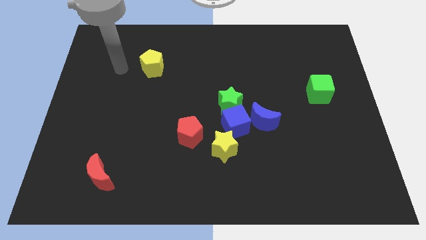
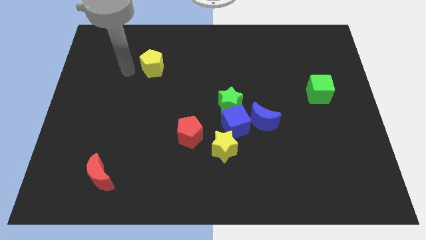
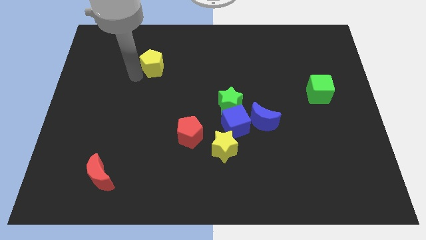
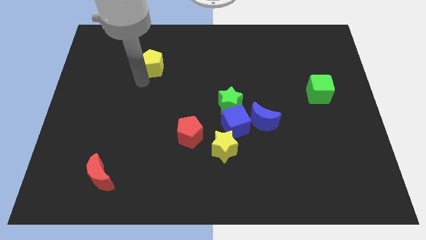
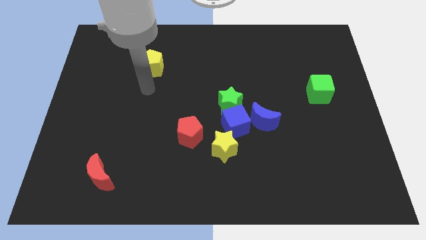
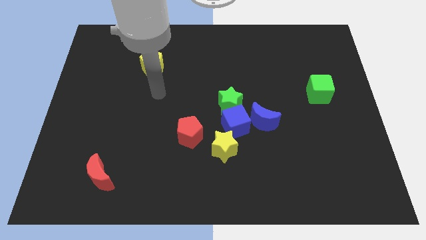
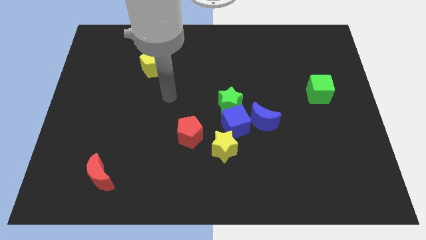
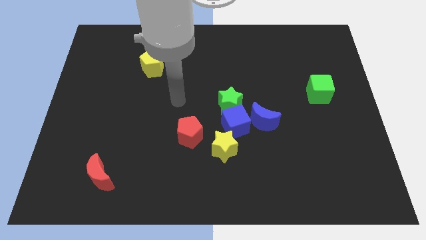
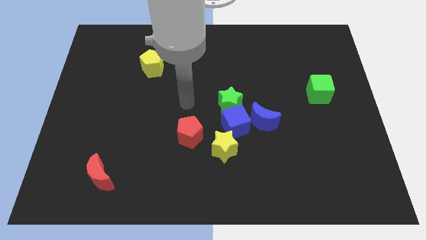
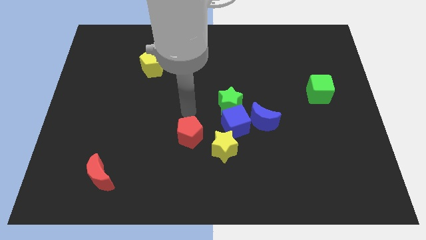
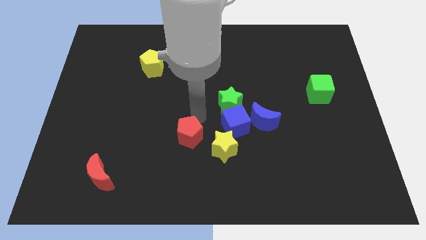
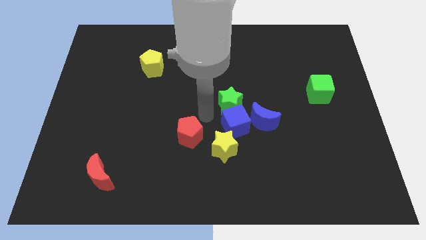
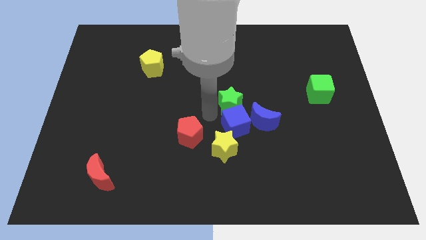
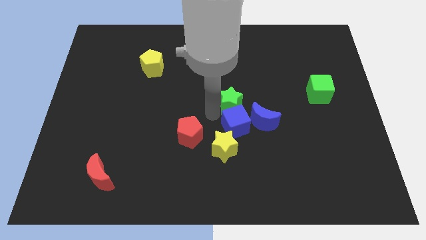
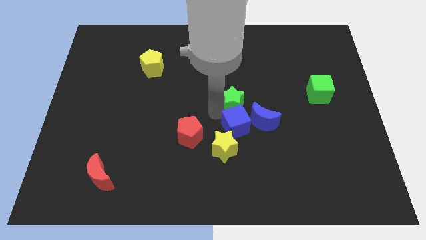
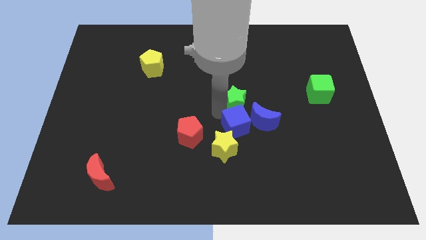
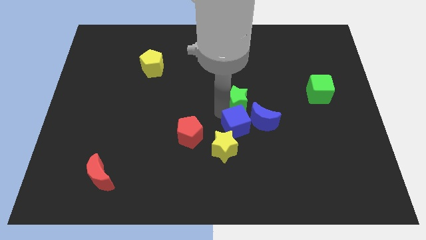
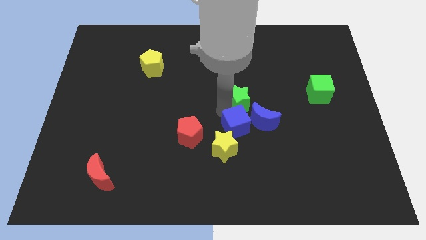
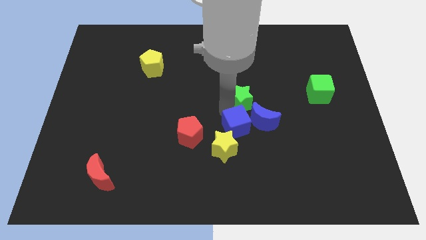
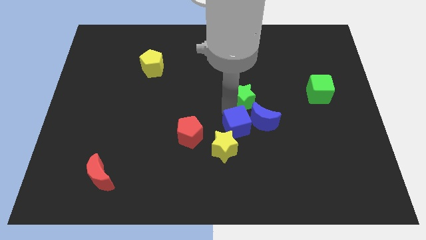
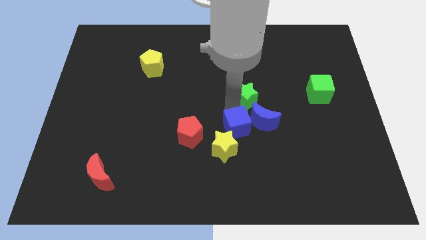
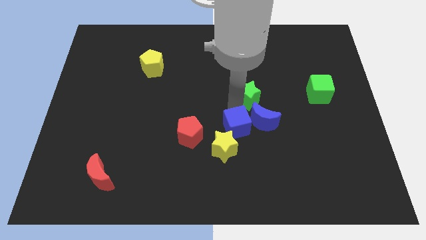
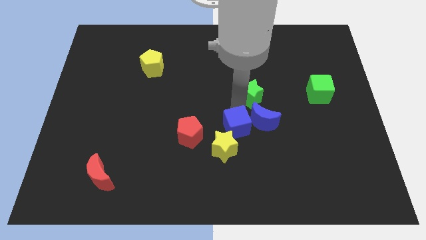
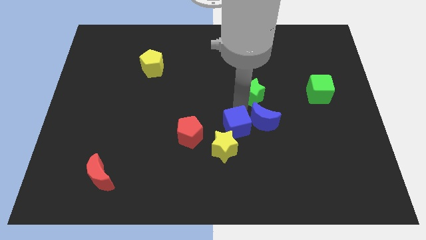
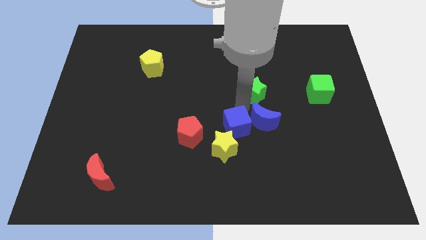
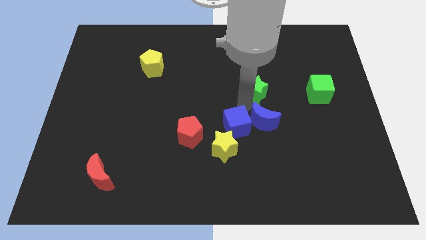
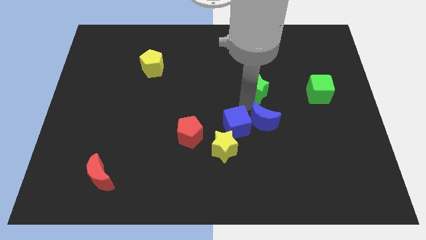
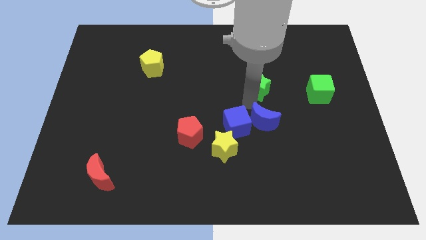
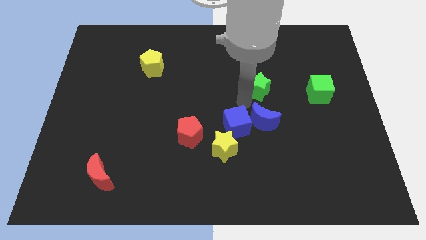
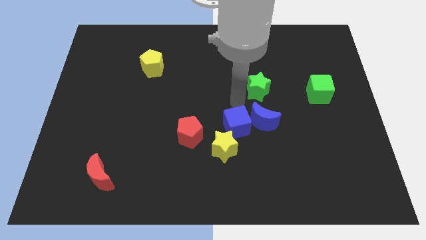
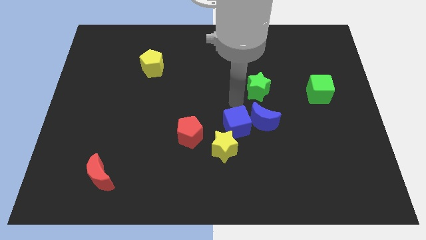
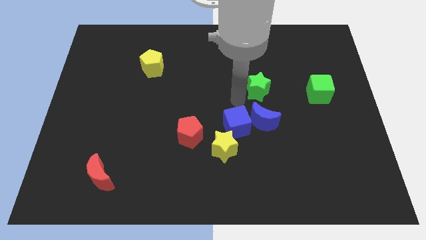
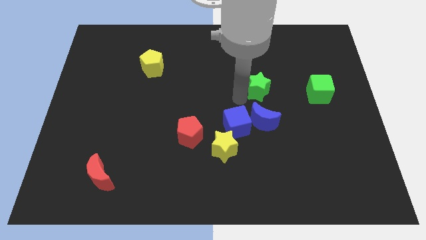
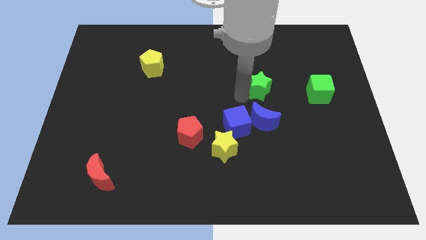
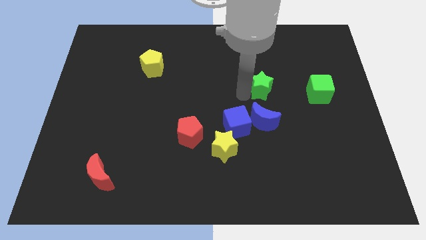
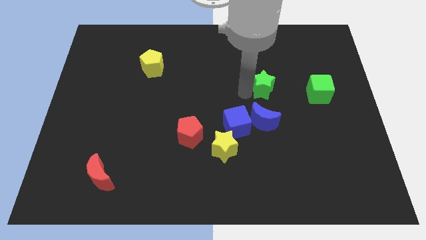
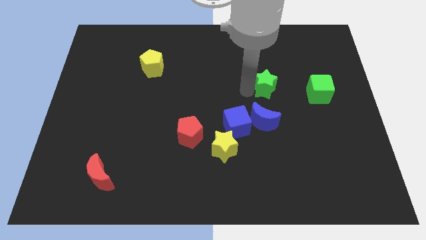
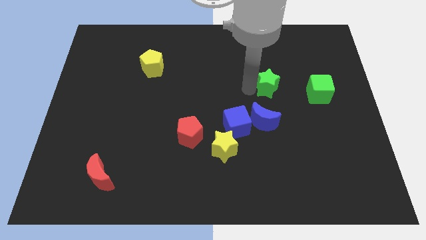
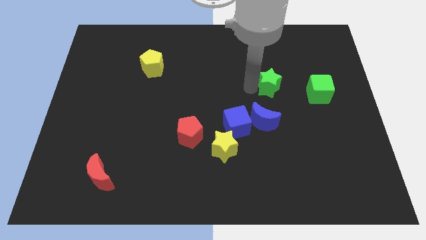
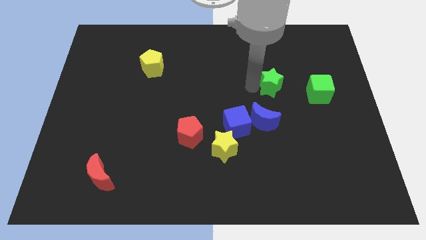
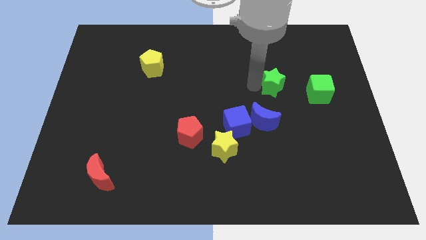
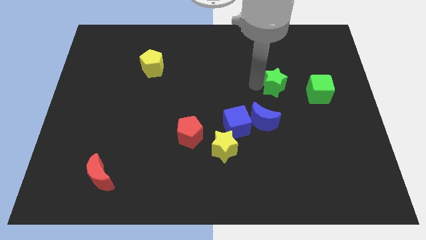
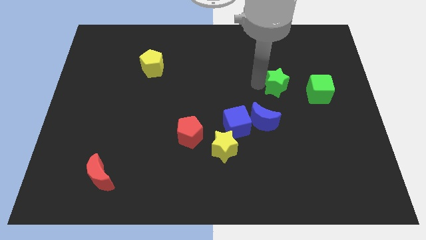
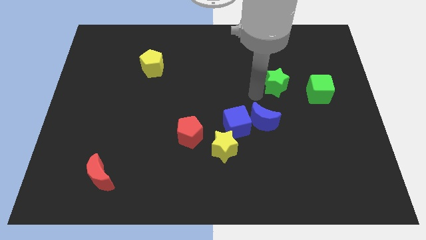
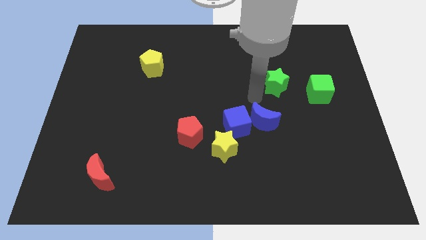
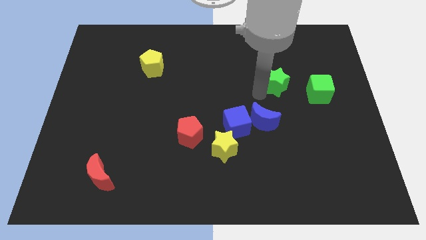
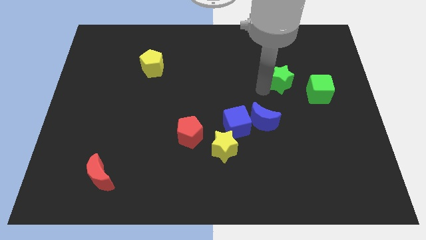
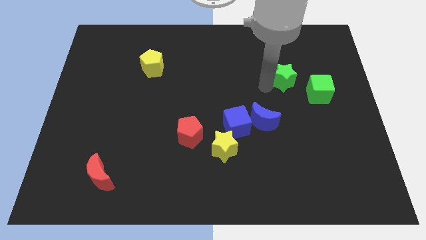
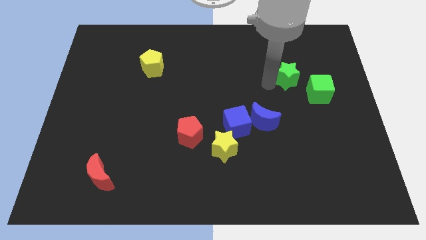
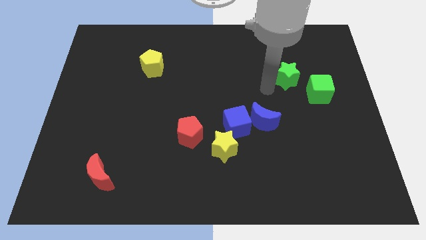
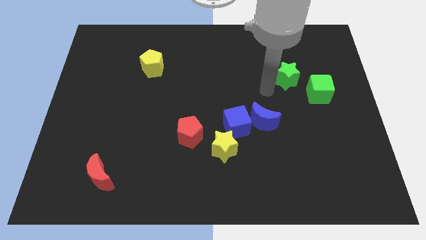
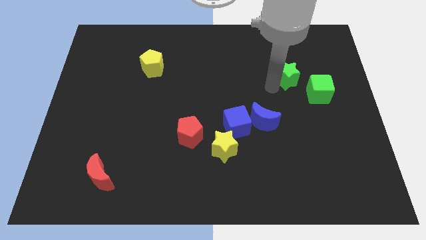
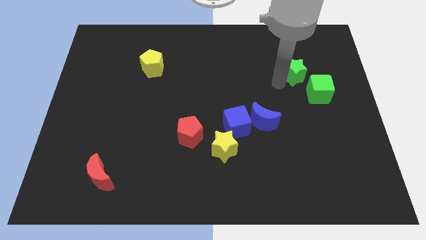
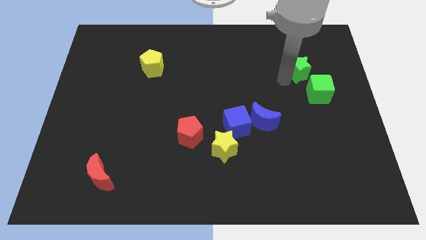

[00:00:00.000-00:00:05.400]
move the green star above the green cube

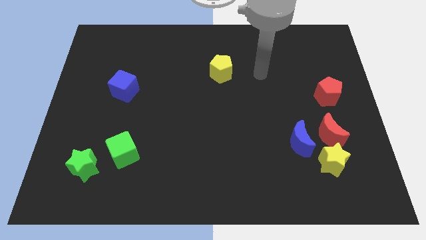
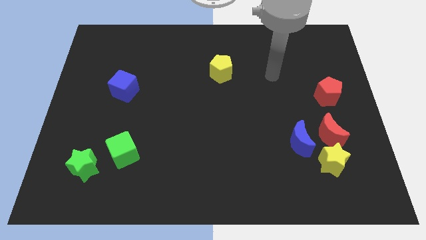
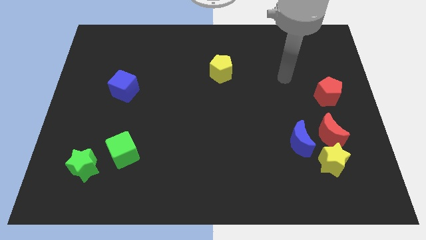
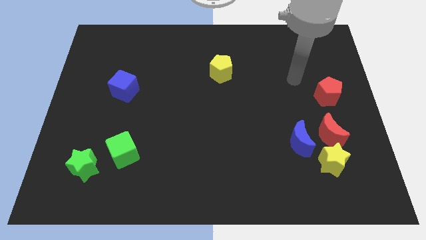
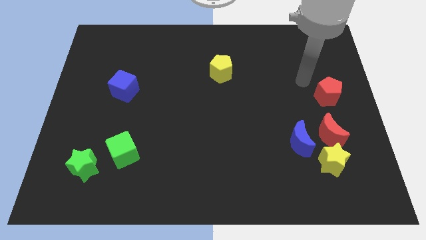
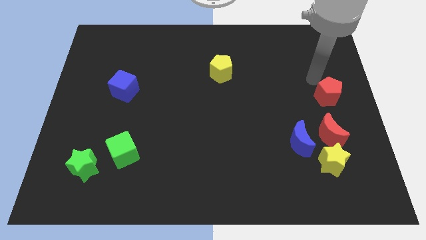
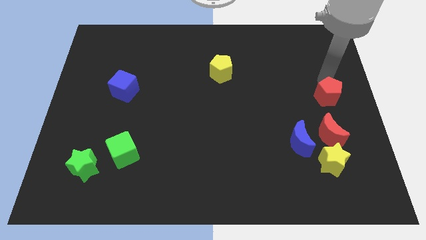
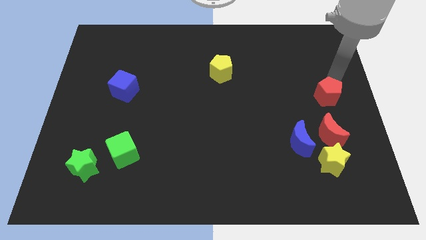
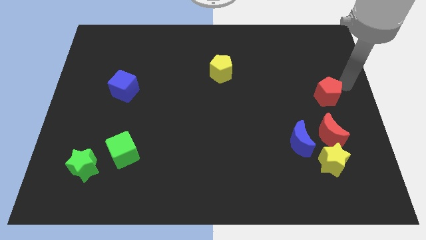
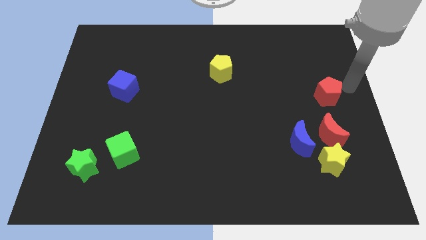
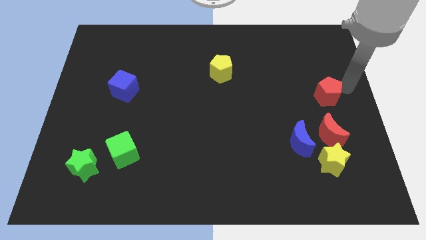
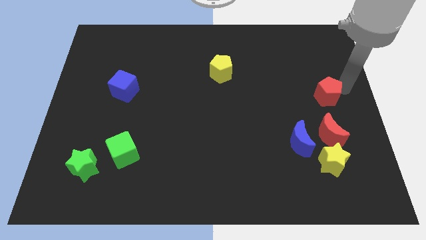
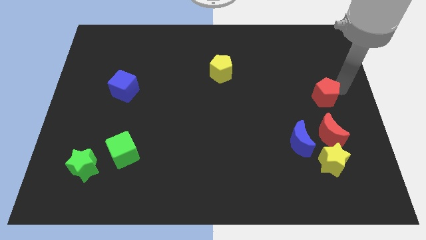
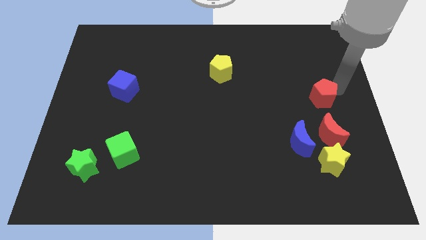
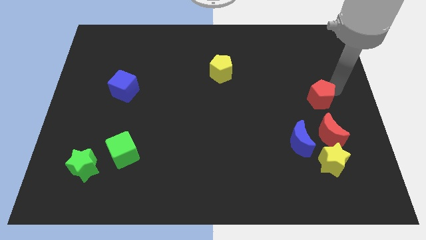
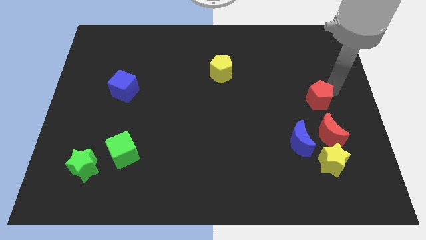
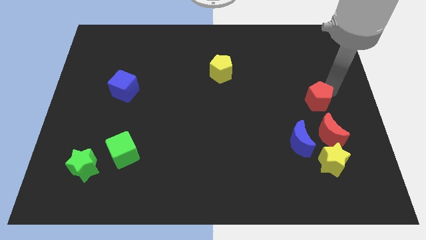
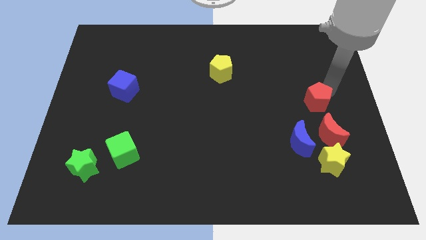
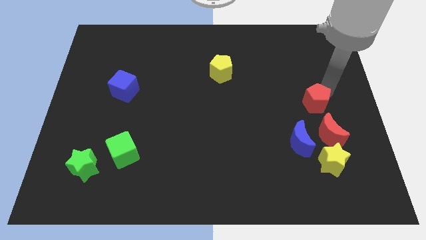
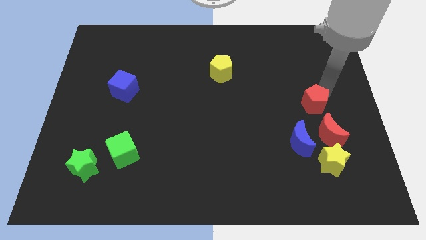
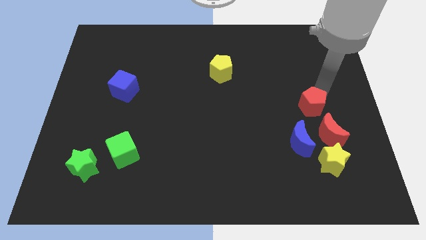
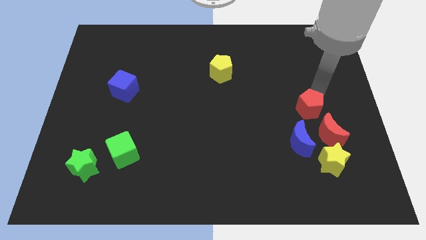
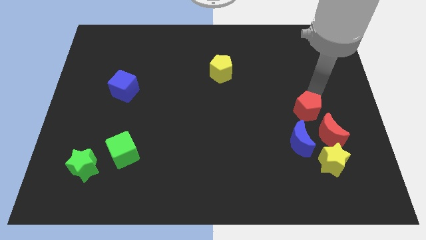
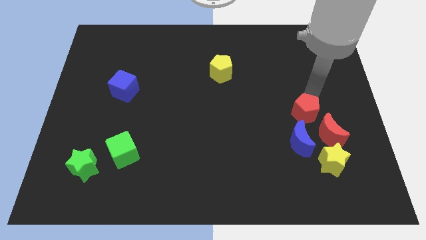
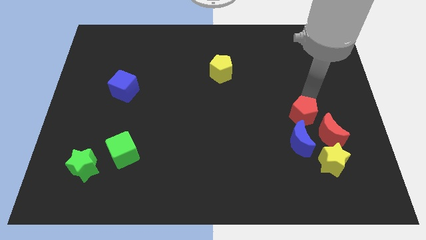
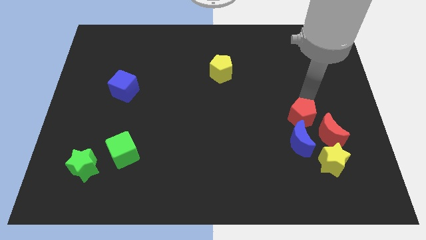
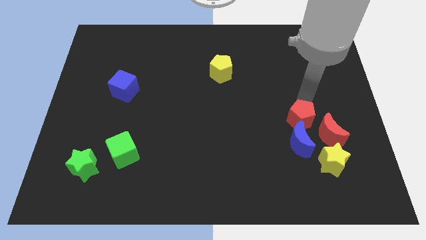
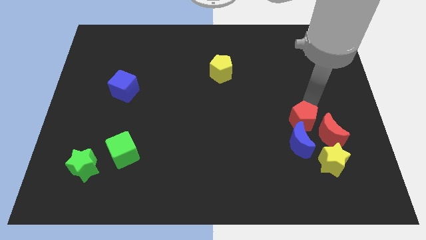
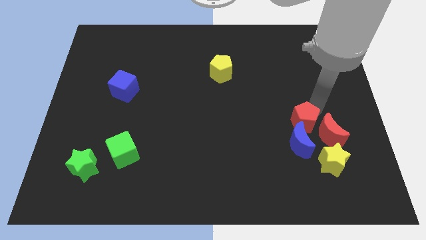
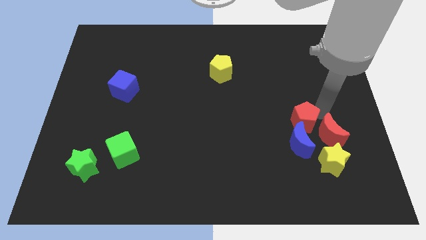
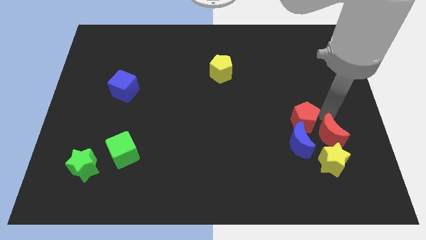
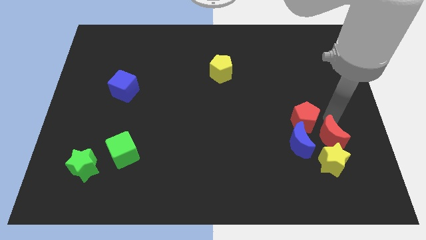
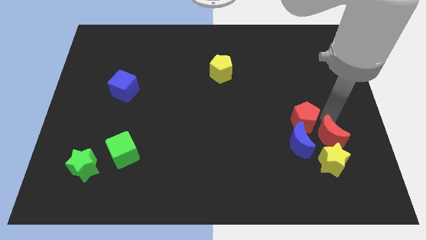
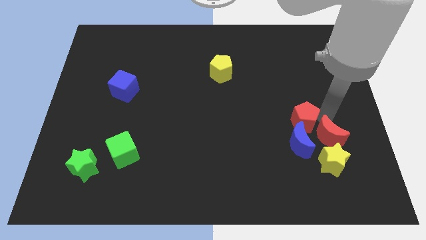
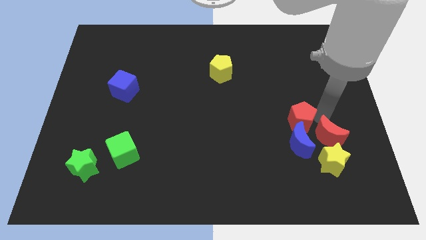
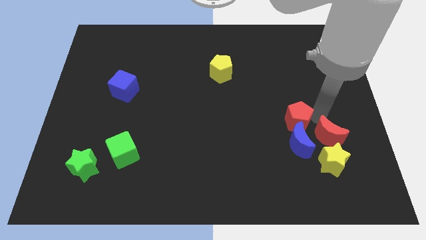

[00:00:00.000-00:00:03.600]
move the red pentagon to the top left of the blue moon
